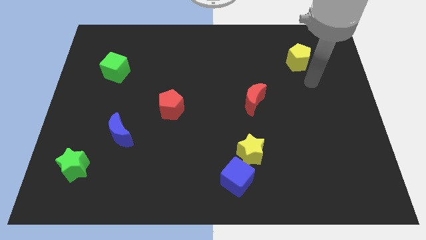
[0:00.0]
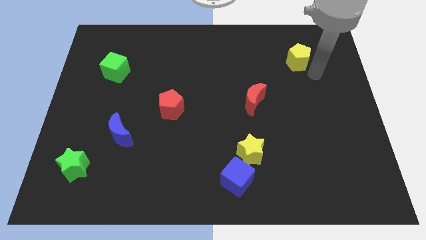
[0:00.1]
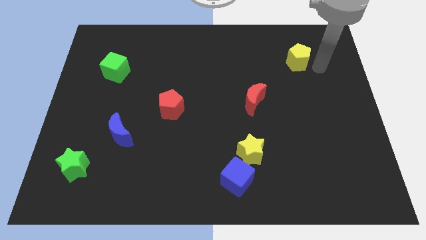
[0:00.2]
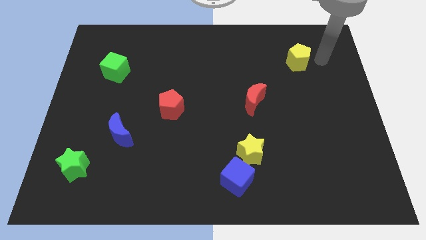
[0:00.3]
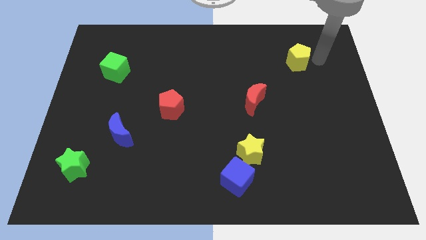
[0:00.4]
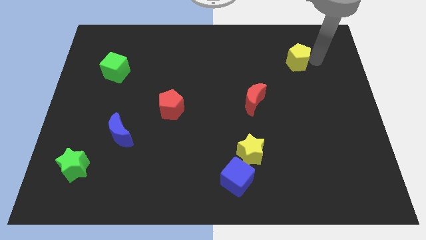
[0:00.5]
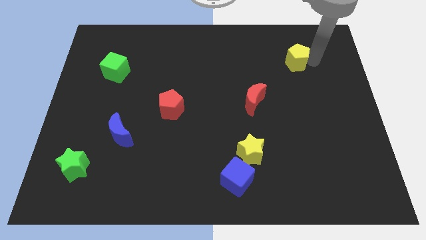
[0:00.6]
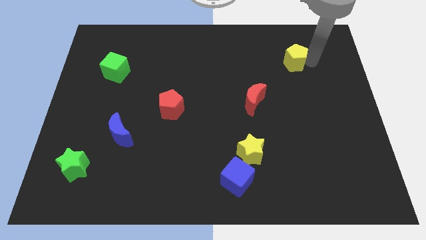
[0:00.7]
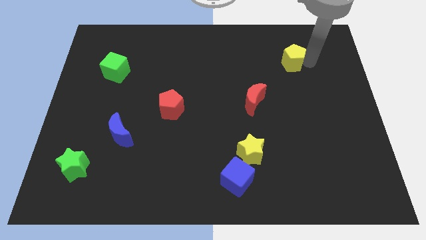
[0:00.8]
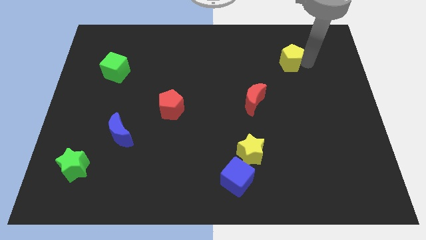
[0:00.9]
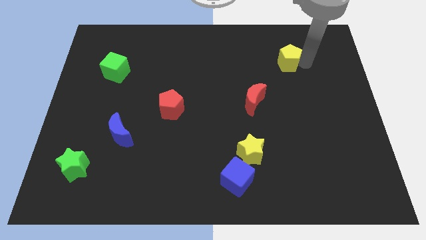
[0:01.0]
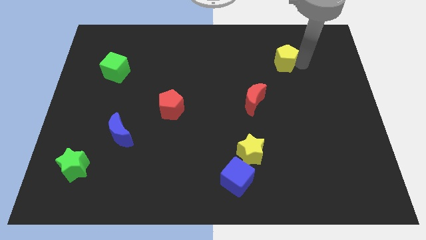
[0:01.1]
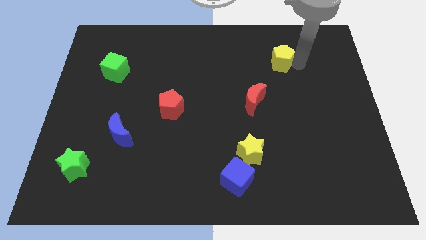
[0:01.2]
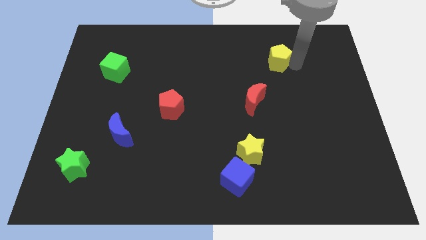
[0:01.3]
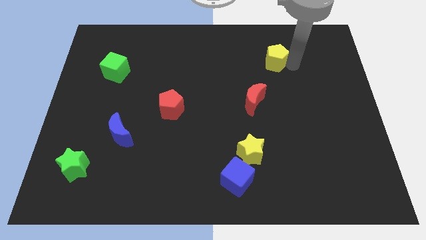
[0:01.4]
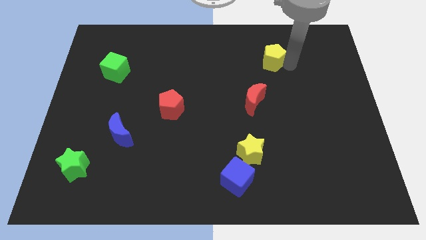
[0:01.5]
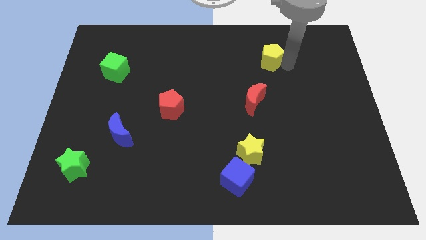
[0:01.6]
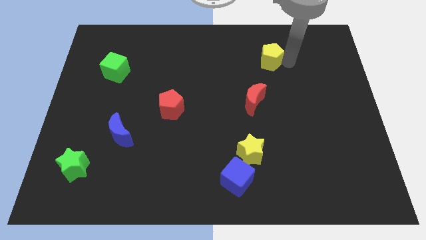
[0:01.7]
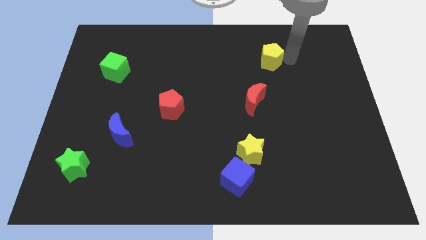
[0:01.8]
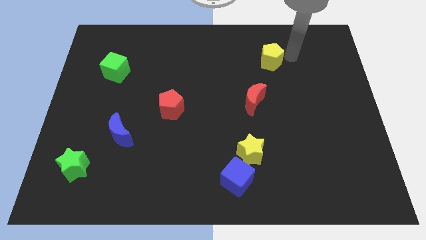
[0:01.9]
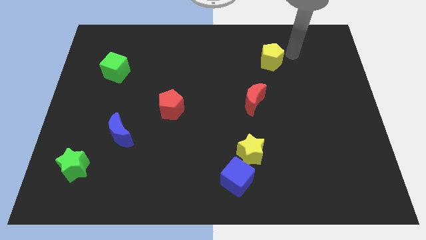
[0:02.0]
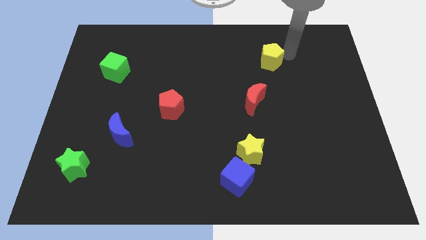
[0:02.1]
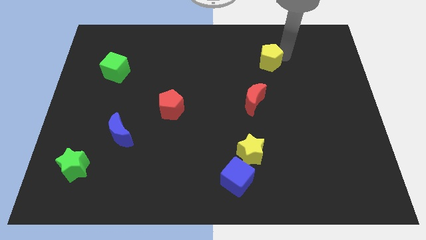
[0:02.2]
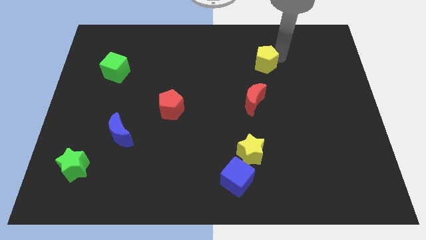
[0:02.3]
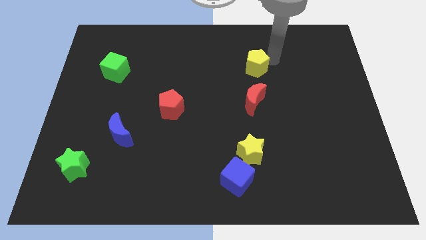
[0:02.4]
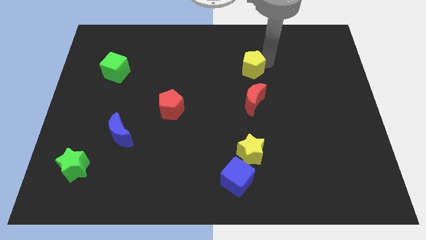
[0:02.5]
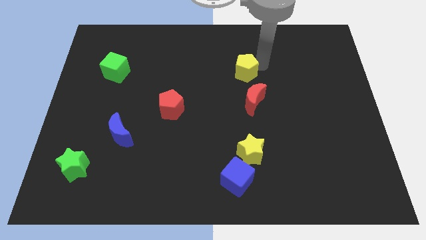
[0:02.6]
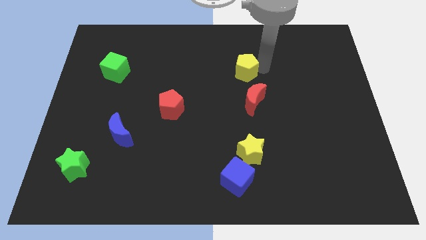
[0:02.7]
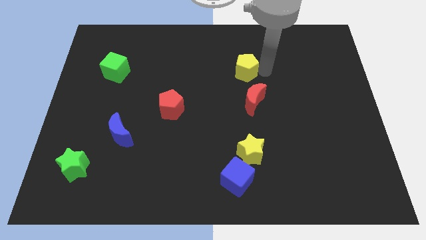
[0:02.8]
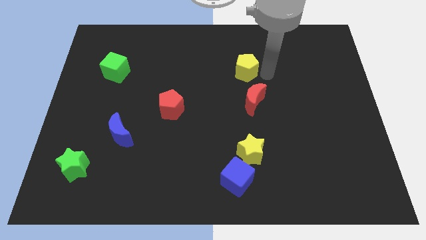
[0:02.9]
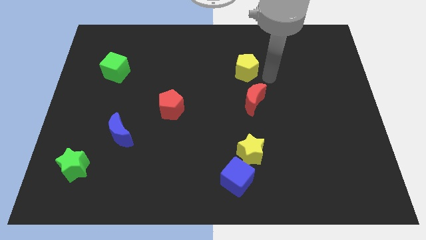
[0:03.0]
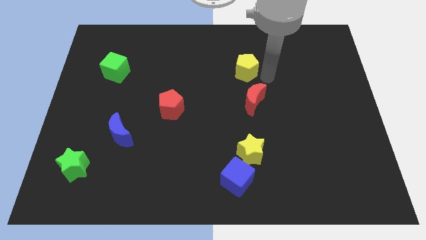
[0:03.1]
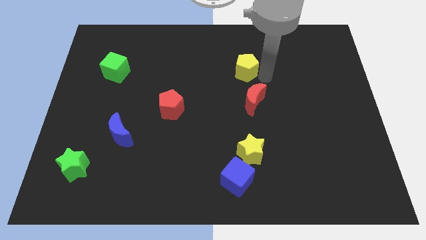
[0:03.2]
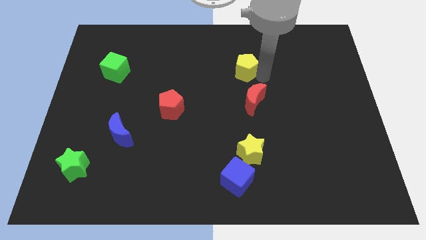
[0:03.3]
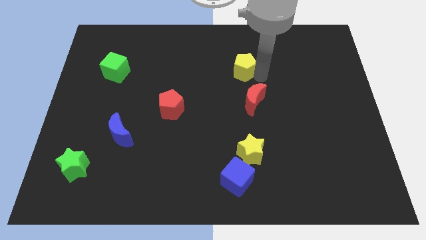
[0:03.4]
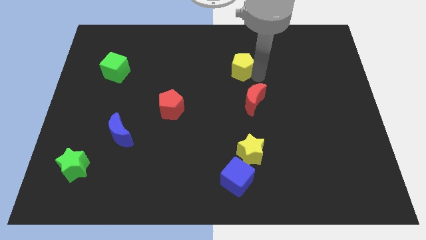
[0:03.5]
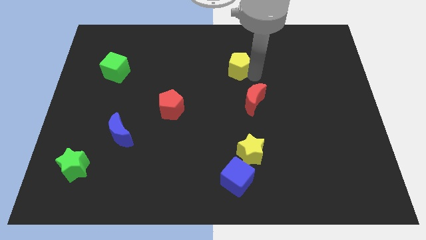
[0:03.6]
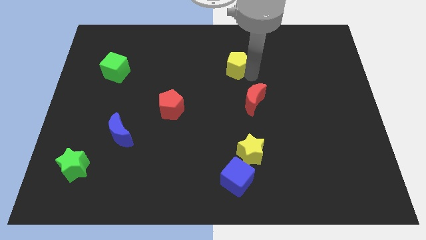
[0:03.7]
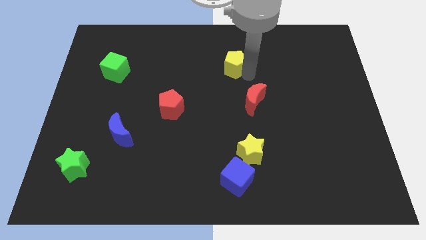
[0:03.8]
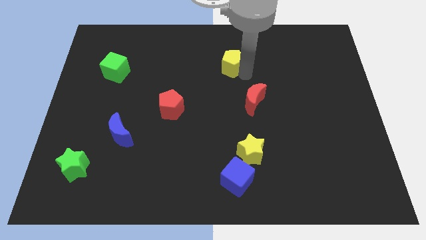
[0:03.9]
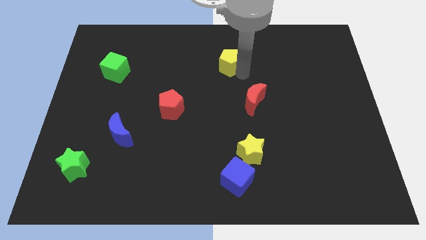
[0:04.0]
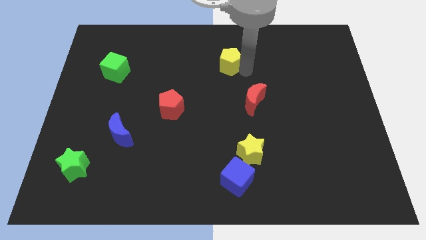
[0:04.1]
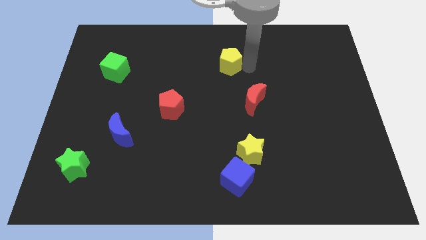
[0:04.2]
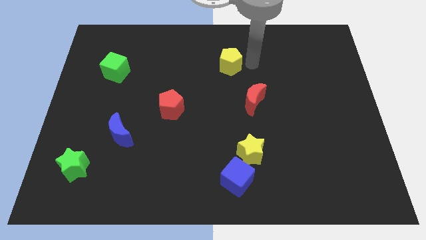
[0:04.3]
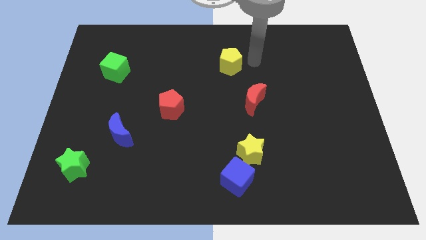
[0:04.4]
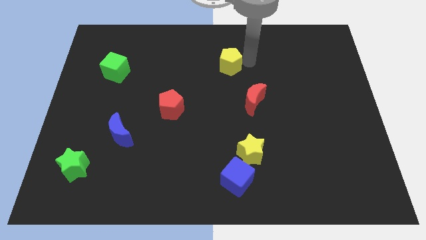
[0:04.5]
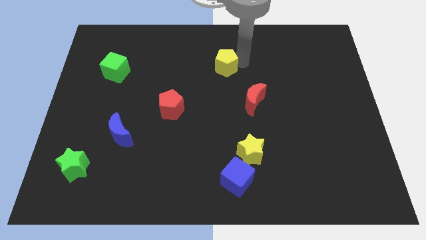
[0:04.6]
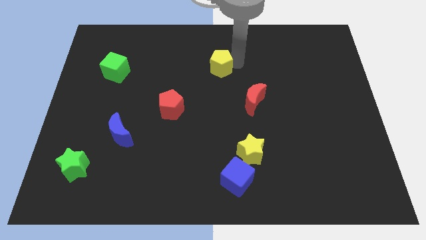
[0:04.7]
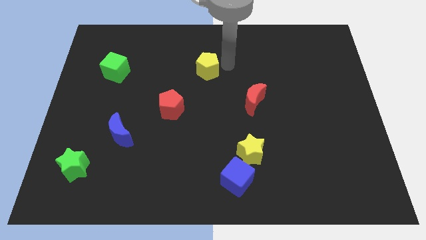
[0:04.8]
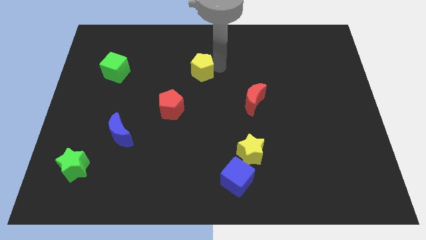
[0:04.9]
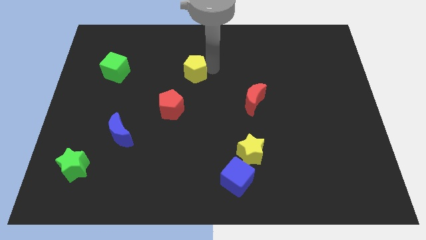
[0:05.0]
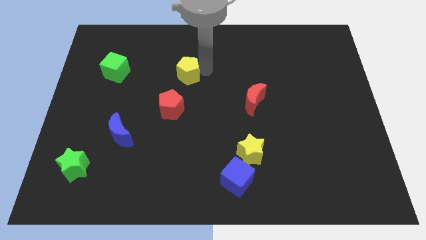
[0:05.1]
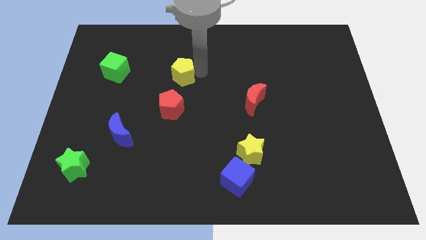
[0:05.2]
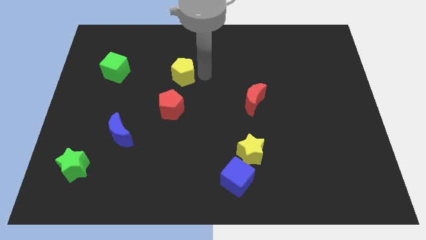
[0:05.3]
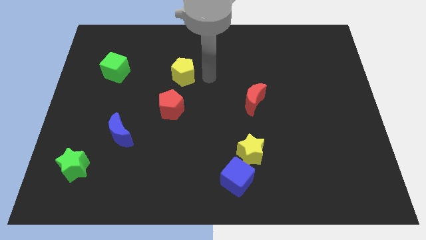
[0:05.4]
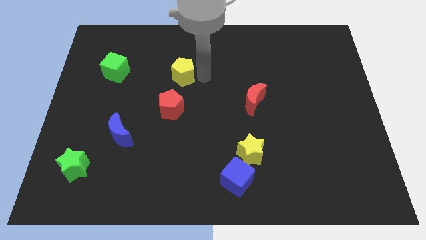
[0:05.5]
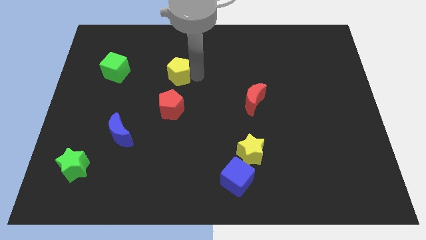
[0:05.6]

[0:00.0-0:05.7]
push the yellow pentagon right of the green cube

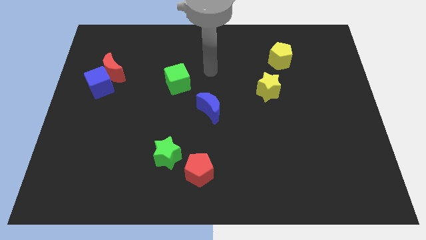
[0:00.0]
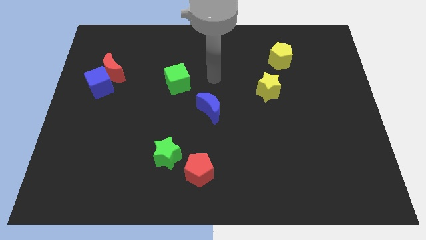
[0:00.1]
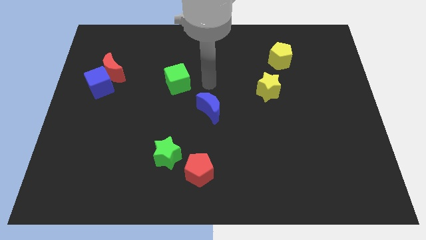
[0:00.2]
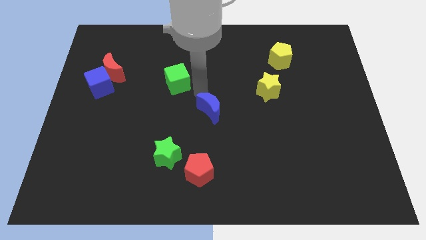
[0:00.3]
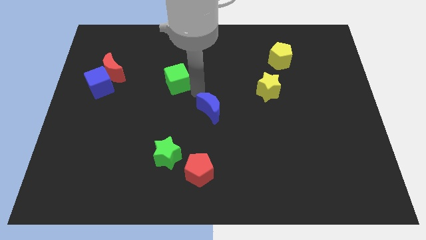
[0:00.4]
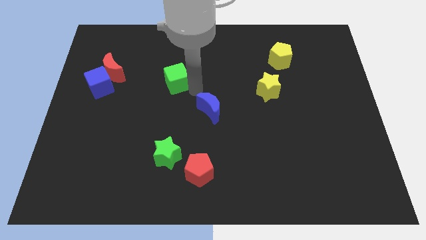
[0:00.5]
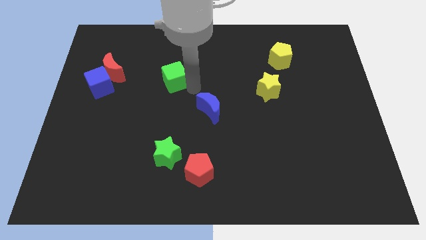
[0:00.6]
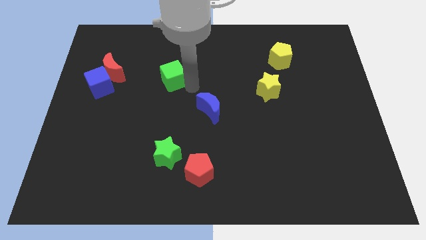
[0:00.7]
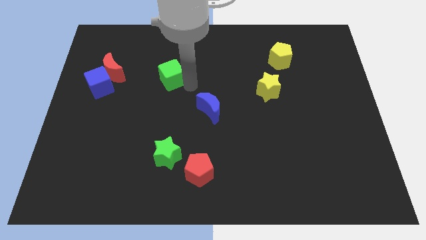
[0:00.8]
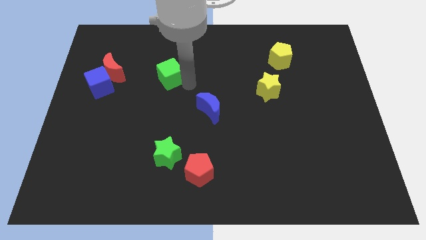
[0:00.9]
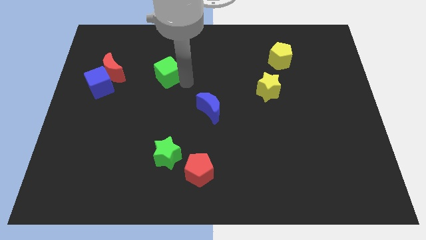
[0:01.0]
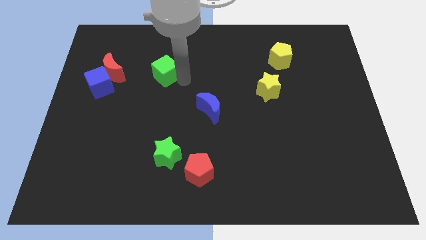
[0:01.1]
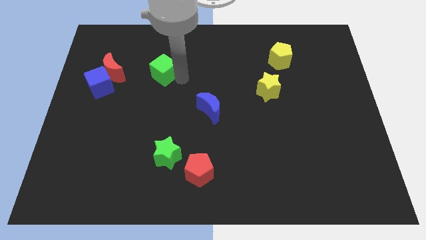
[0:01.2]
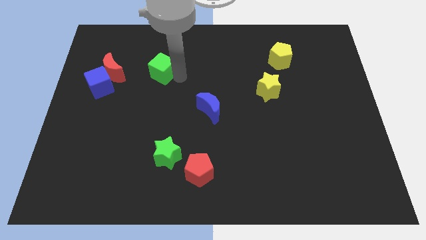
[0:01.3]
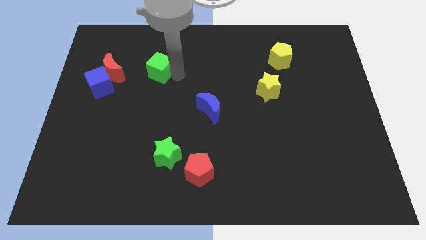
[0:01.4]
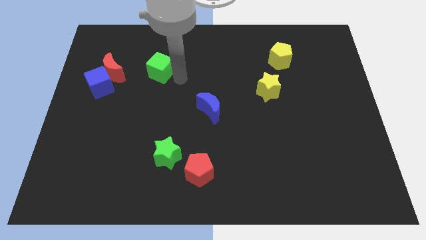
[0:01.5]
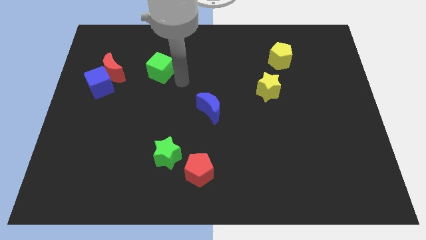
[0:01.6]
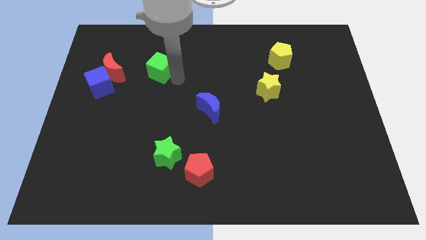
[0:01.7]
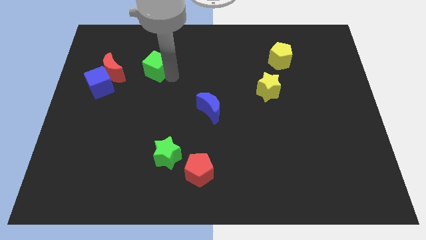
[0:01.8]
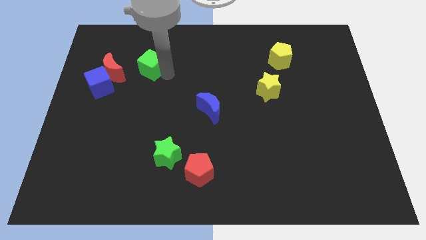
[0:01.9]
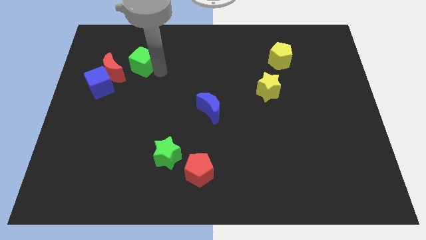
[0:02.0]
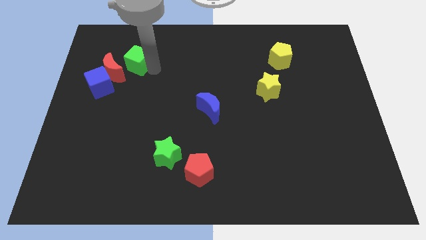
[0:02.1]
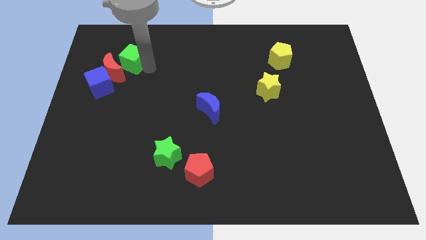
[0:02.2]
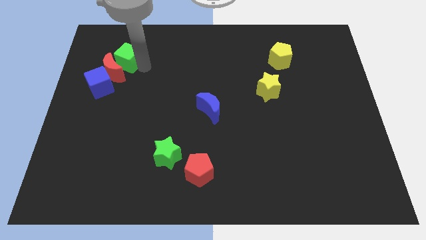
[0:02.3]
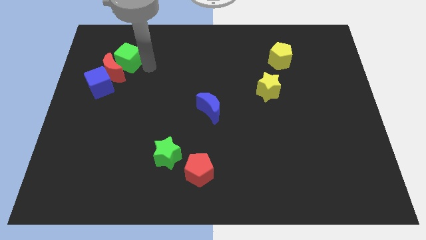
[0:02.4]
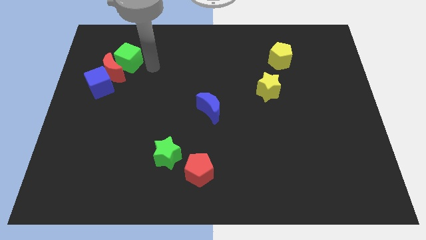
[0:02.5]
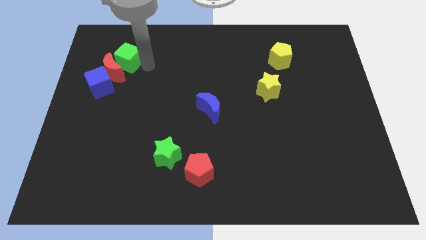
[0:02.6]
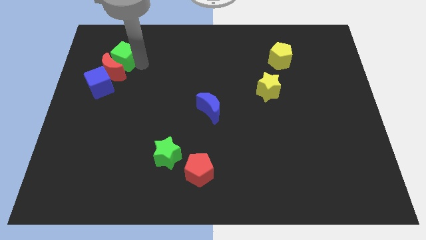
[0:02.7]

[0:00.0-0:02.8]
slide the green cube above the blue cube
